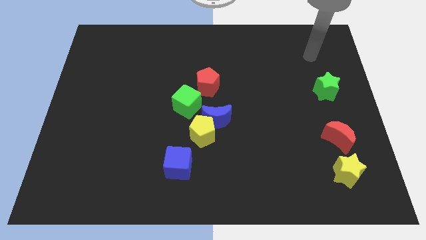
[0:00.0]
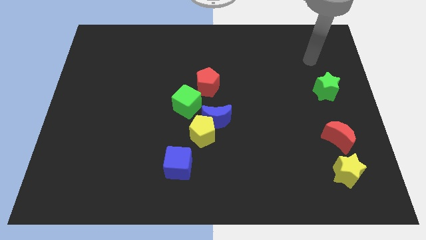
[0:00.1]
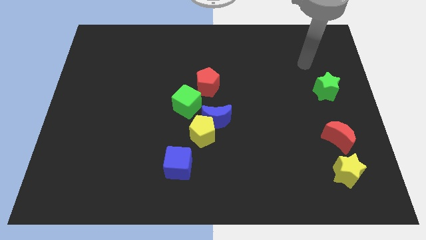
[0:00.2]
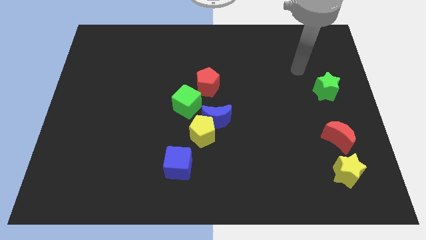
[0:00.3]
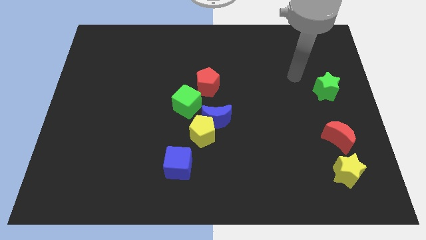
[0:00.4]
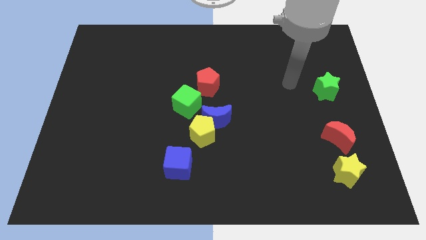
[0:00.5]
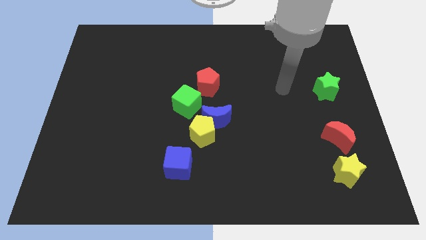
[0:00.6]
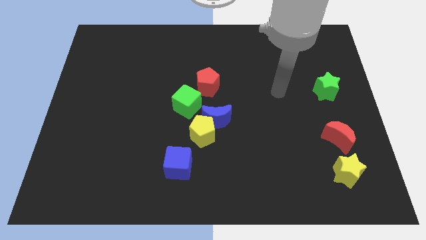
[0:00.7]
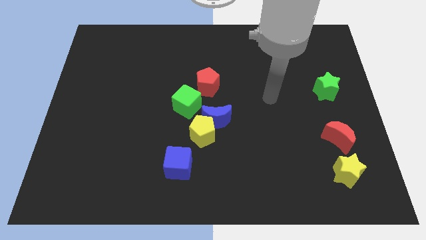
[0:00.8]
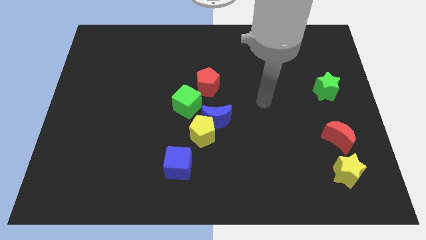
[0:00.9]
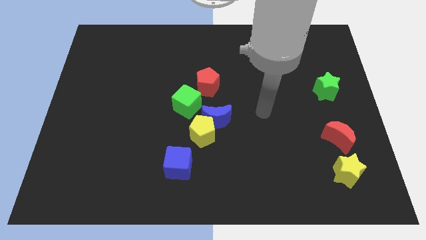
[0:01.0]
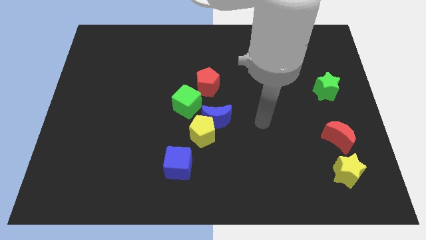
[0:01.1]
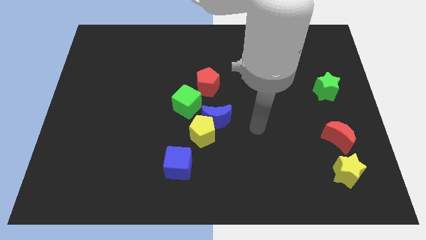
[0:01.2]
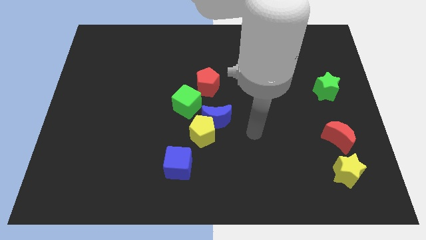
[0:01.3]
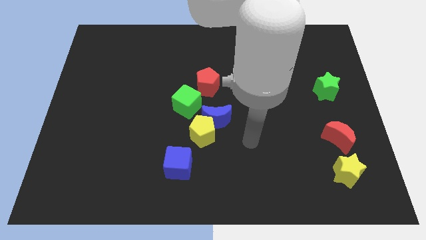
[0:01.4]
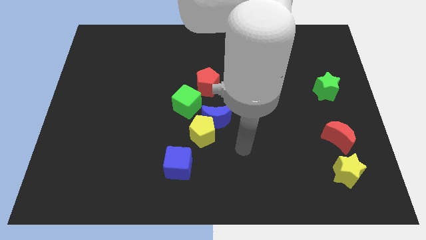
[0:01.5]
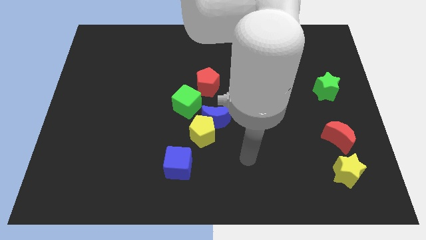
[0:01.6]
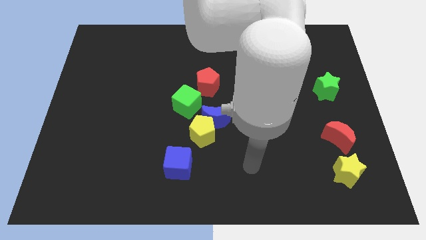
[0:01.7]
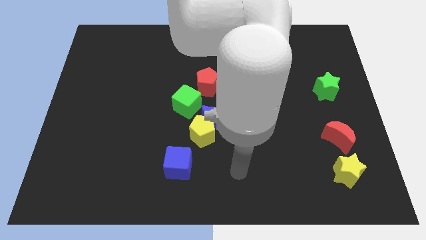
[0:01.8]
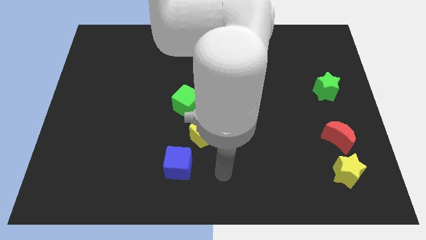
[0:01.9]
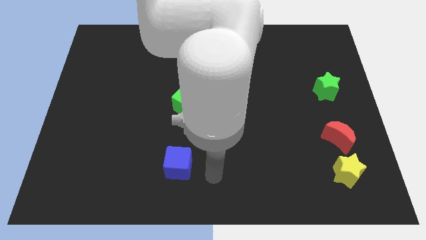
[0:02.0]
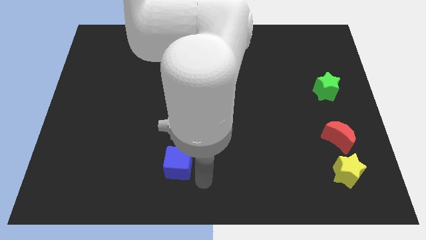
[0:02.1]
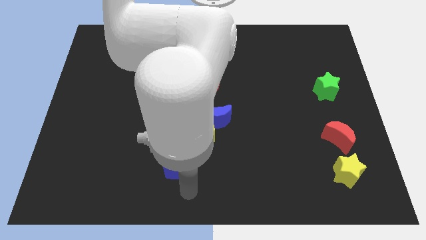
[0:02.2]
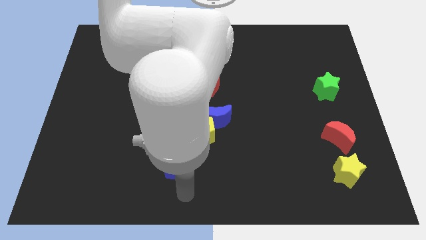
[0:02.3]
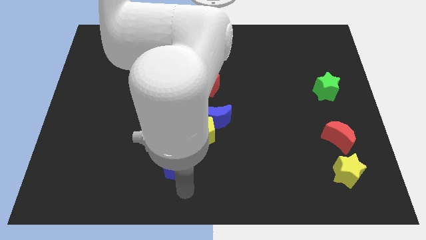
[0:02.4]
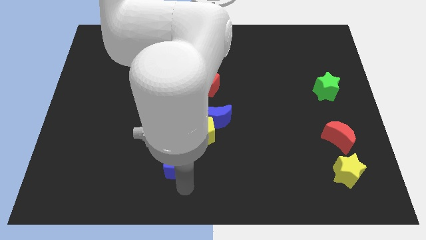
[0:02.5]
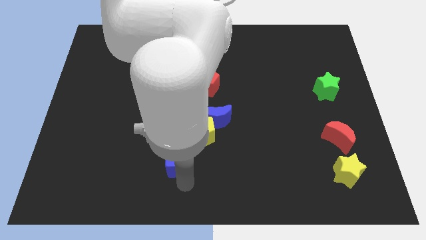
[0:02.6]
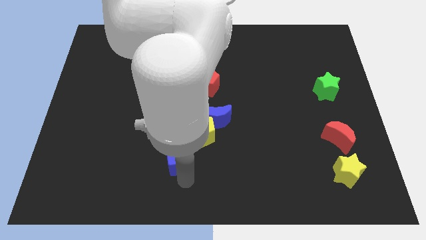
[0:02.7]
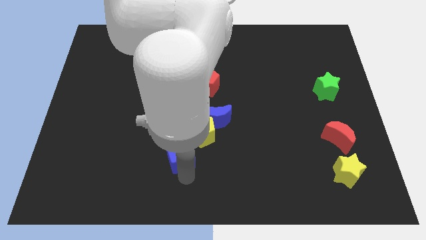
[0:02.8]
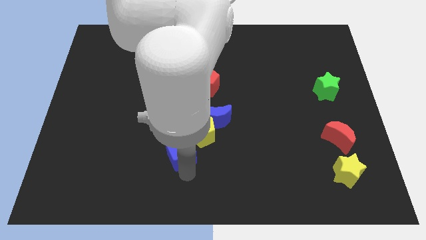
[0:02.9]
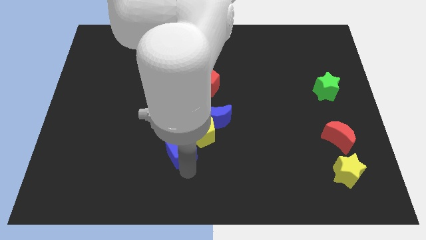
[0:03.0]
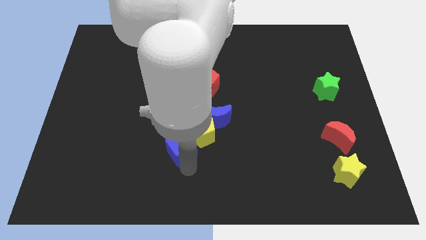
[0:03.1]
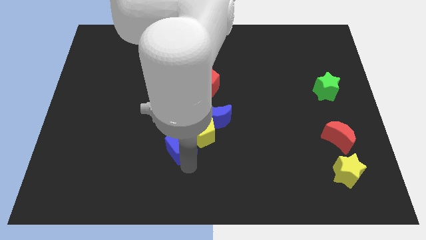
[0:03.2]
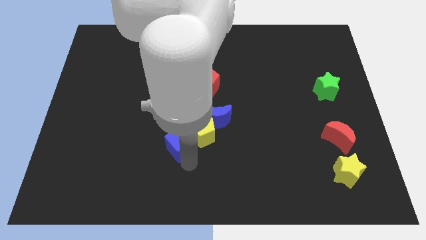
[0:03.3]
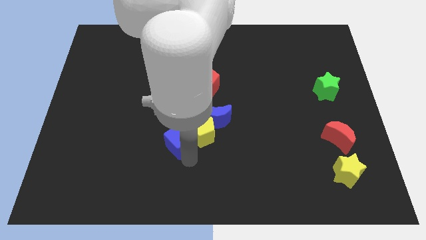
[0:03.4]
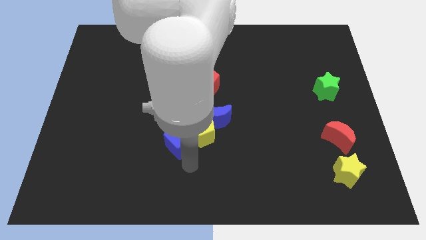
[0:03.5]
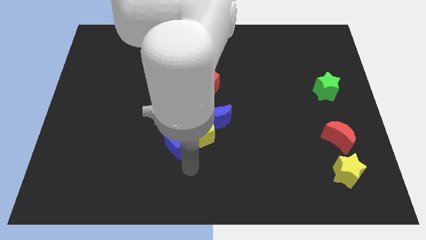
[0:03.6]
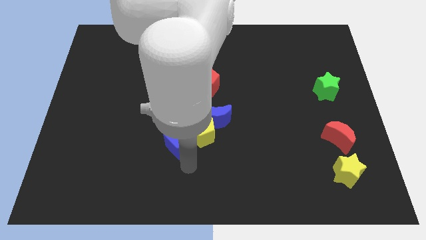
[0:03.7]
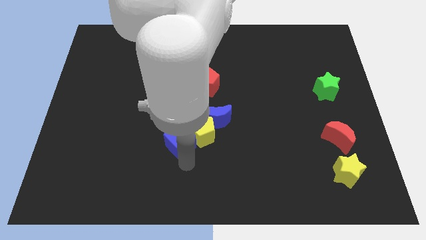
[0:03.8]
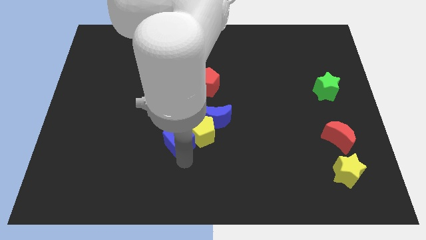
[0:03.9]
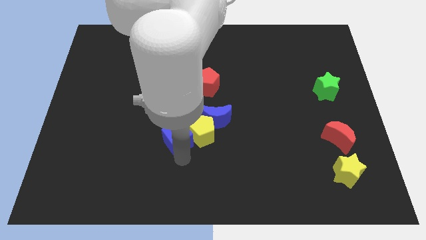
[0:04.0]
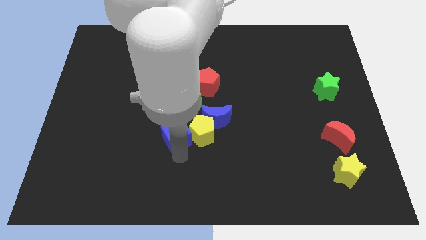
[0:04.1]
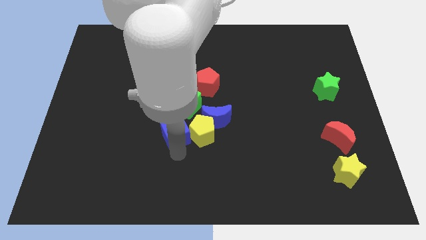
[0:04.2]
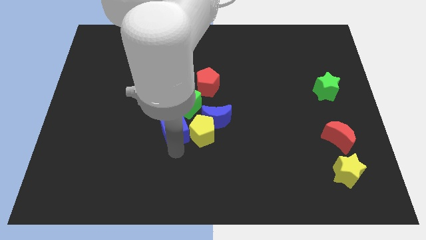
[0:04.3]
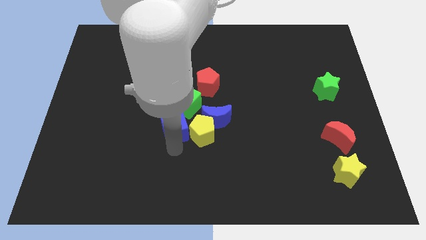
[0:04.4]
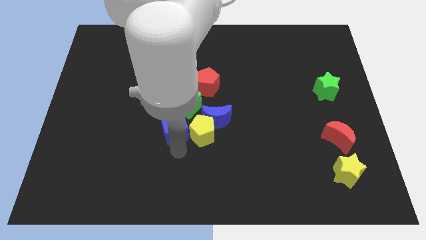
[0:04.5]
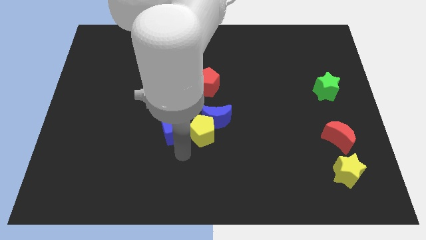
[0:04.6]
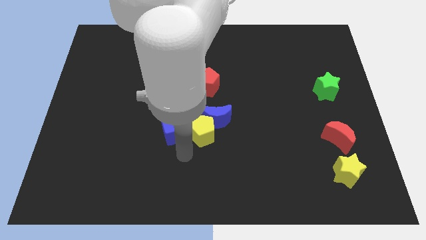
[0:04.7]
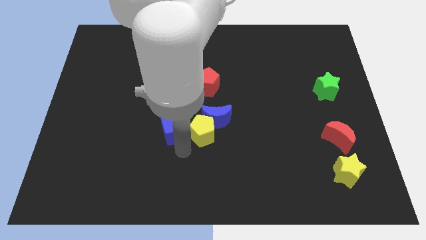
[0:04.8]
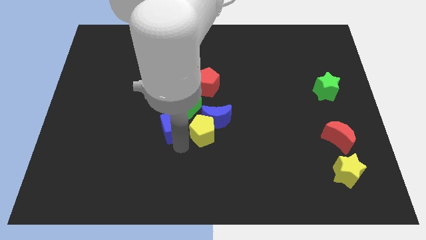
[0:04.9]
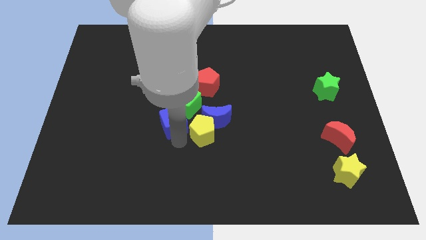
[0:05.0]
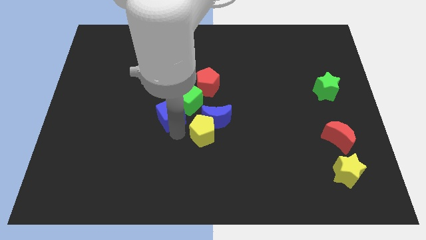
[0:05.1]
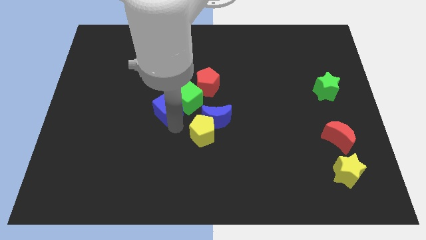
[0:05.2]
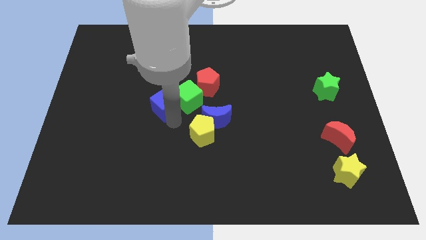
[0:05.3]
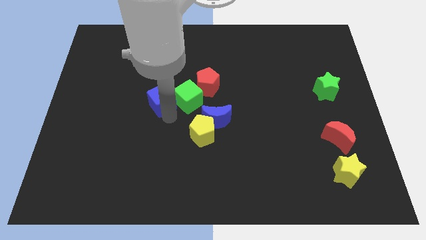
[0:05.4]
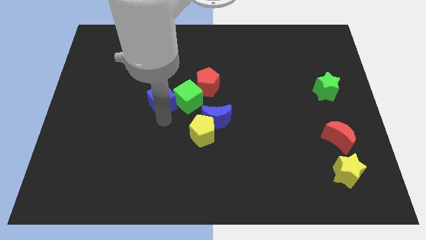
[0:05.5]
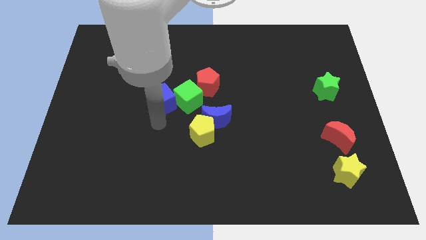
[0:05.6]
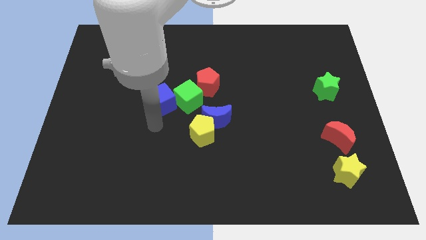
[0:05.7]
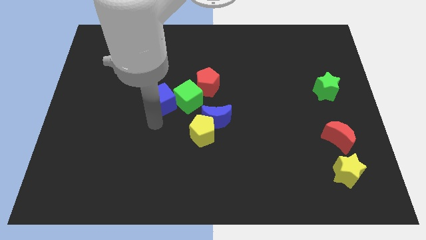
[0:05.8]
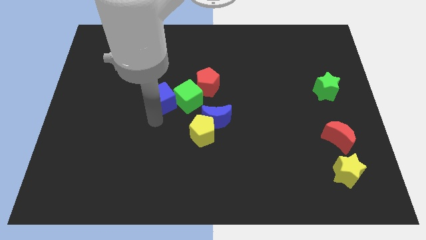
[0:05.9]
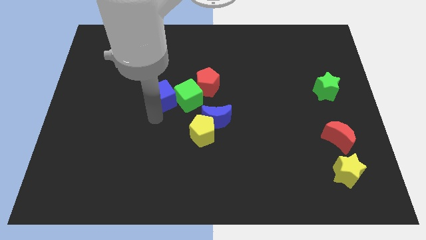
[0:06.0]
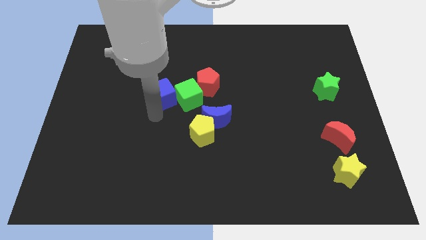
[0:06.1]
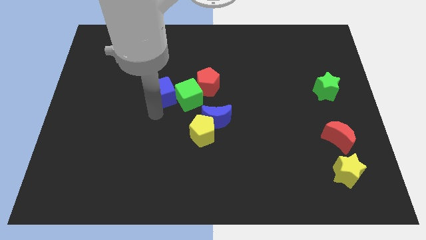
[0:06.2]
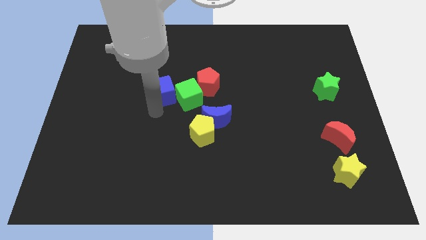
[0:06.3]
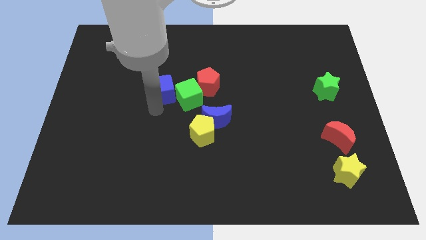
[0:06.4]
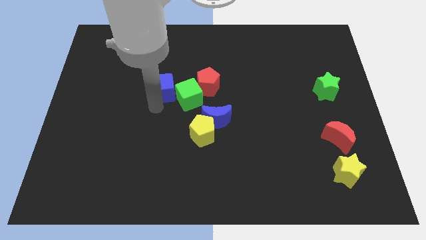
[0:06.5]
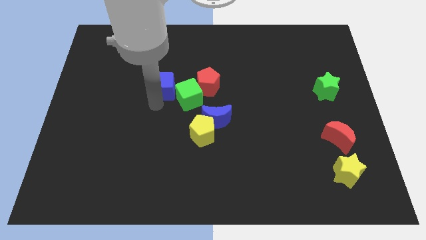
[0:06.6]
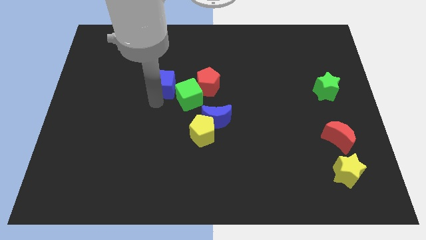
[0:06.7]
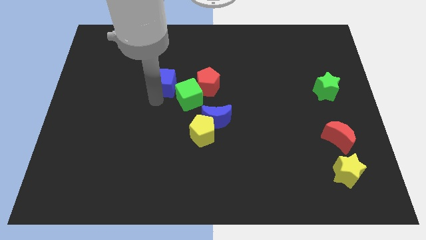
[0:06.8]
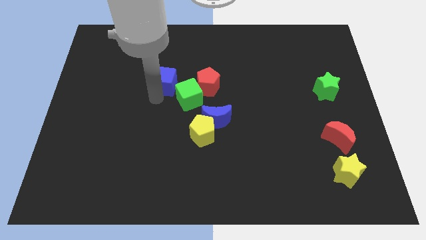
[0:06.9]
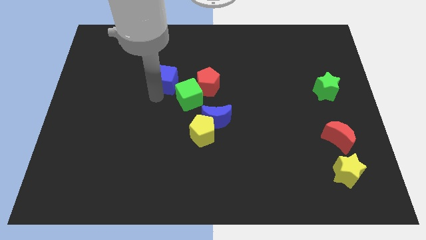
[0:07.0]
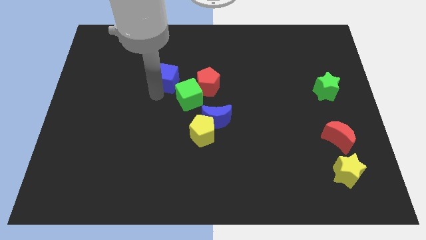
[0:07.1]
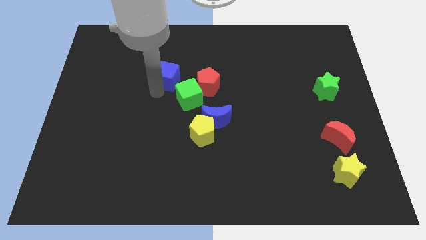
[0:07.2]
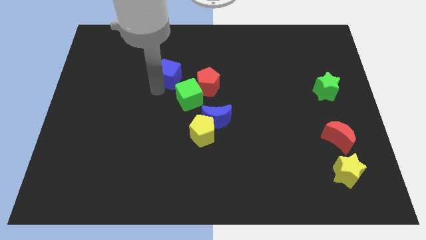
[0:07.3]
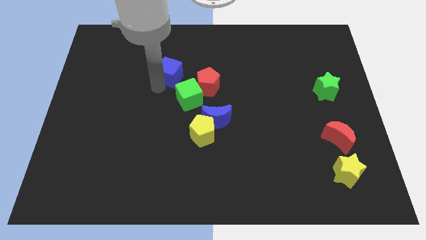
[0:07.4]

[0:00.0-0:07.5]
move the blue cube to the top left side of the red pentagon

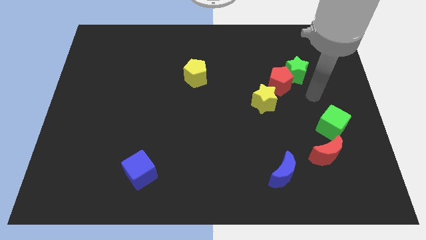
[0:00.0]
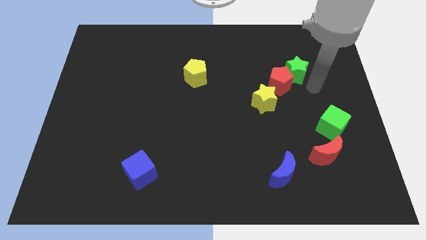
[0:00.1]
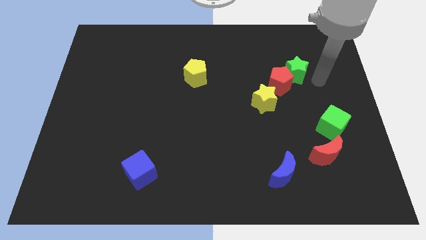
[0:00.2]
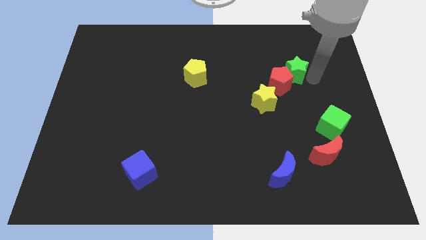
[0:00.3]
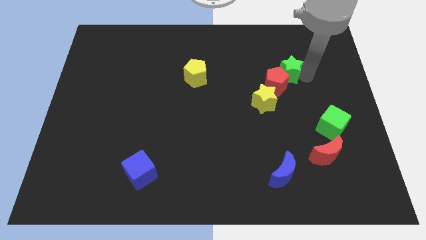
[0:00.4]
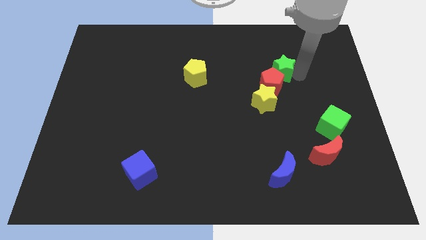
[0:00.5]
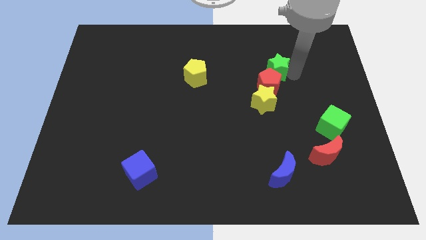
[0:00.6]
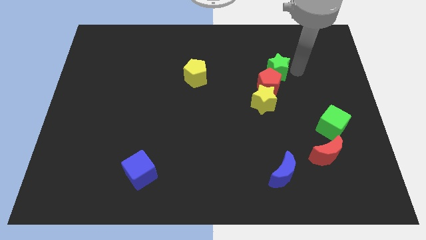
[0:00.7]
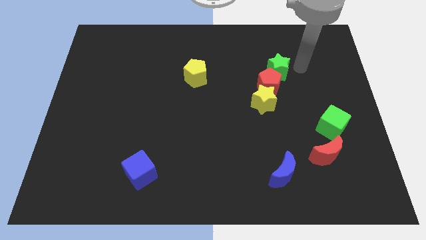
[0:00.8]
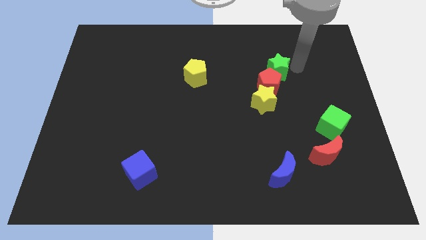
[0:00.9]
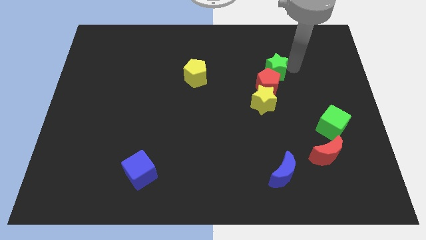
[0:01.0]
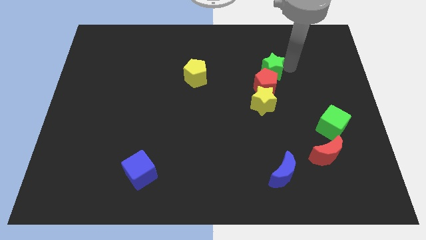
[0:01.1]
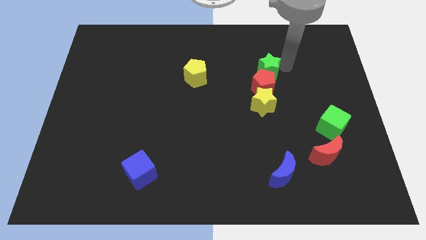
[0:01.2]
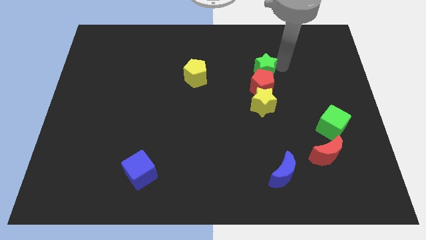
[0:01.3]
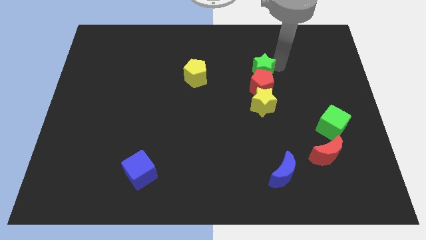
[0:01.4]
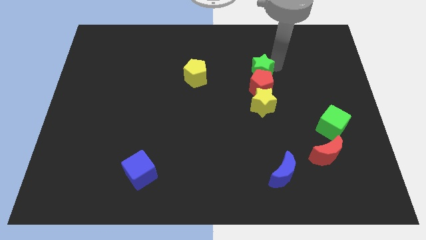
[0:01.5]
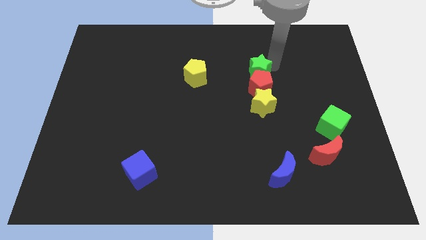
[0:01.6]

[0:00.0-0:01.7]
put the green star right of the yellow pentagon
